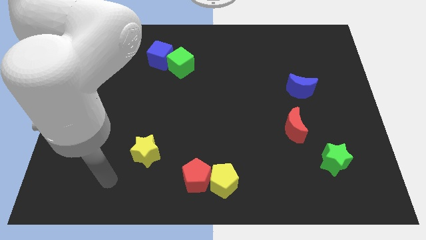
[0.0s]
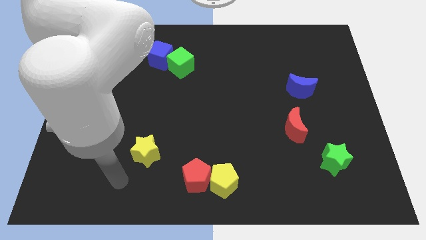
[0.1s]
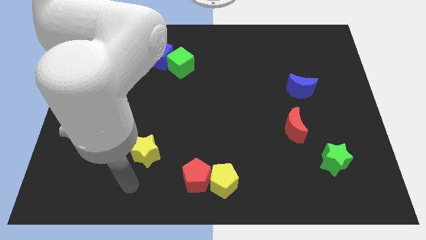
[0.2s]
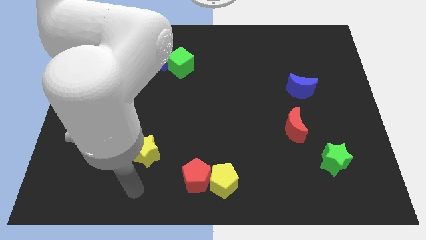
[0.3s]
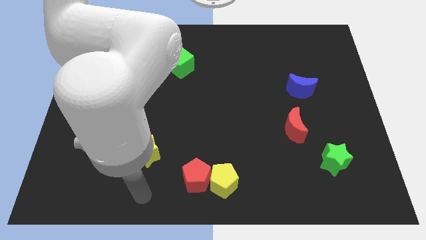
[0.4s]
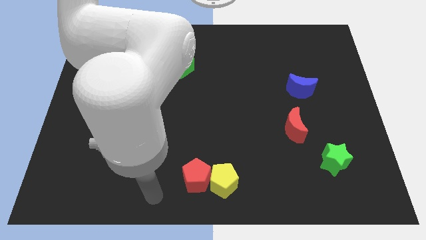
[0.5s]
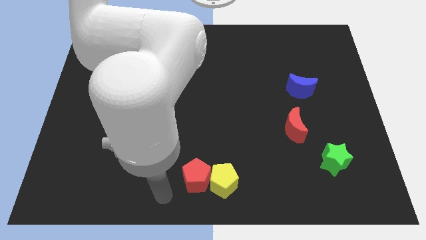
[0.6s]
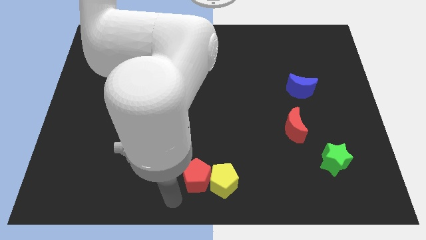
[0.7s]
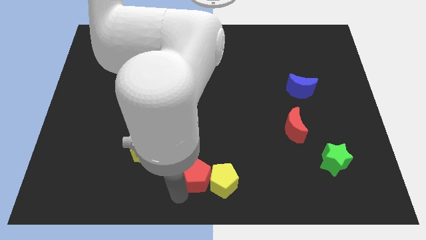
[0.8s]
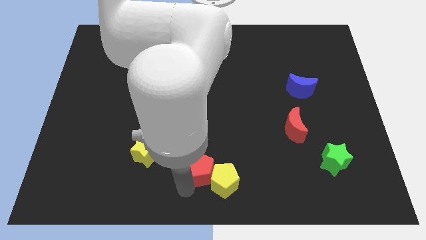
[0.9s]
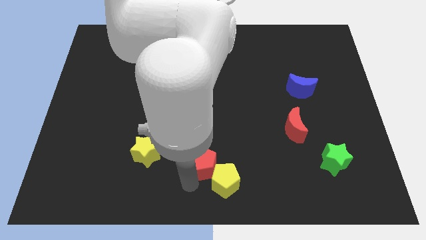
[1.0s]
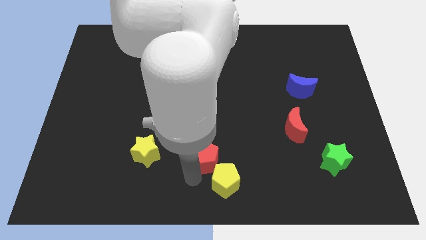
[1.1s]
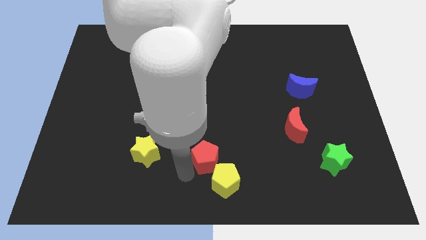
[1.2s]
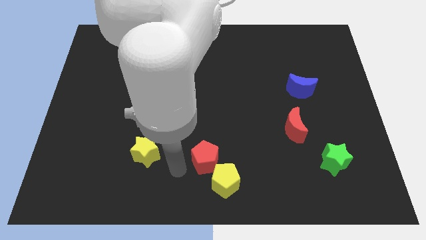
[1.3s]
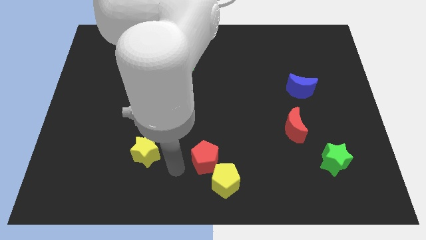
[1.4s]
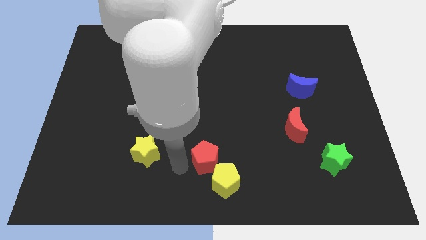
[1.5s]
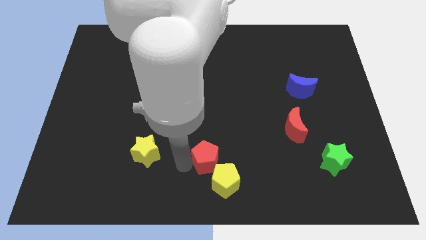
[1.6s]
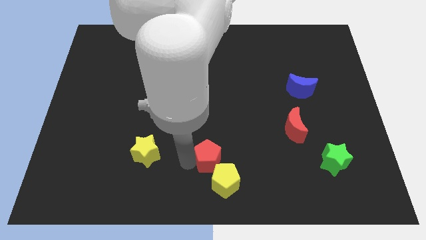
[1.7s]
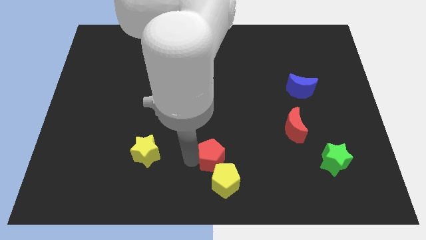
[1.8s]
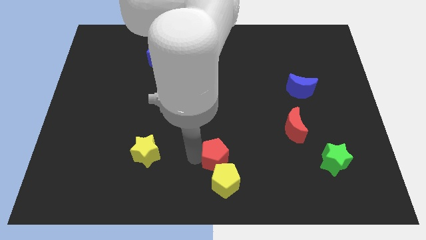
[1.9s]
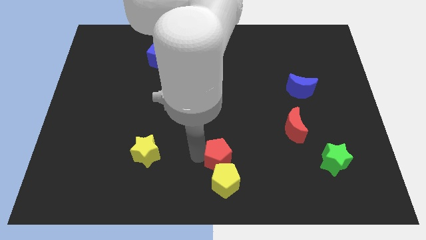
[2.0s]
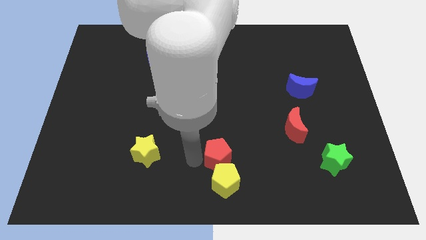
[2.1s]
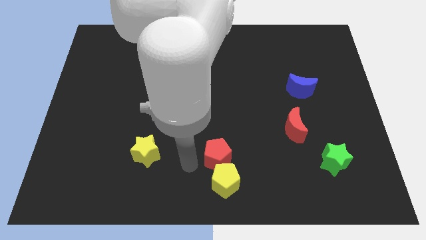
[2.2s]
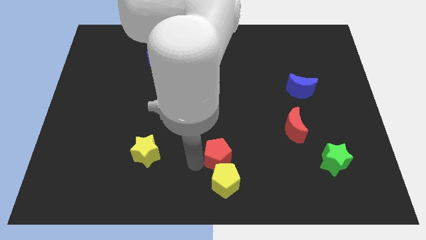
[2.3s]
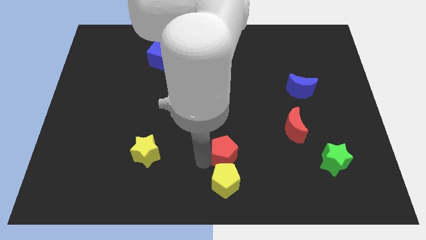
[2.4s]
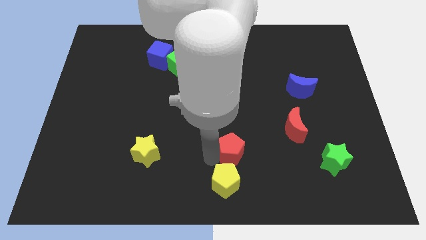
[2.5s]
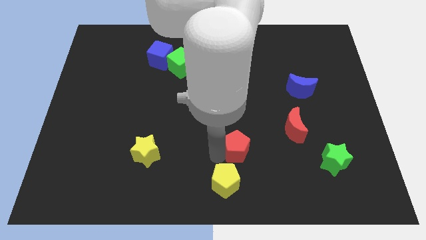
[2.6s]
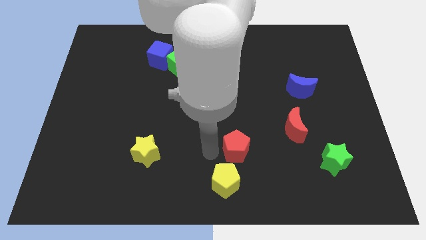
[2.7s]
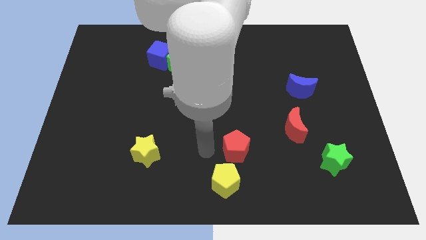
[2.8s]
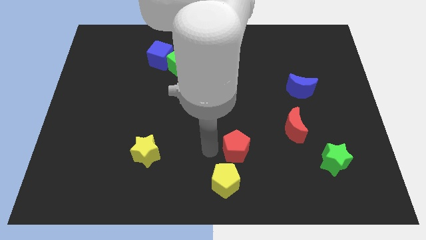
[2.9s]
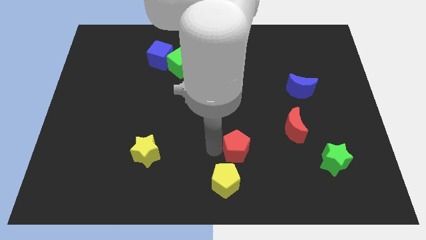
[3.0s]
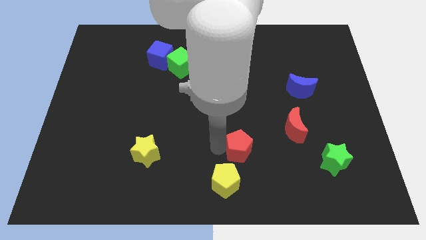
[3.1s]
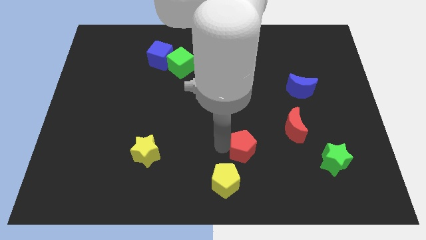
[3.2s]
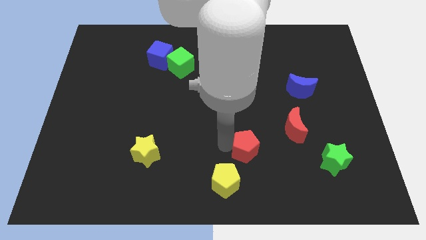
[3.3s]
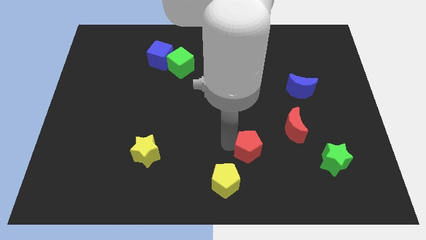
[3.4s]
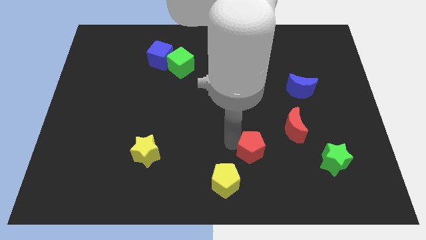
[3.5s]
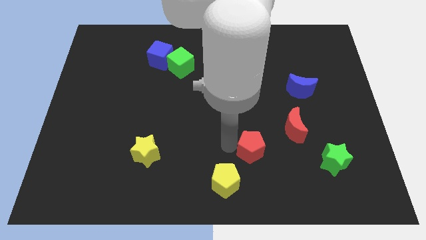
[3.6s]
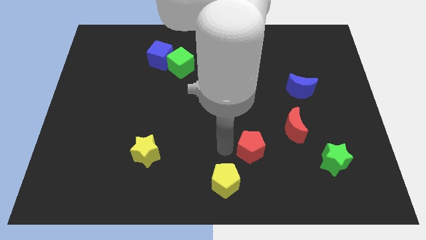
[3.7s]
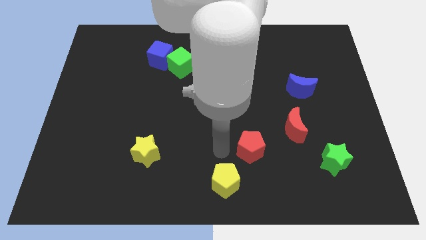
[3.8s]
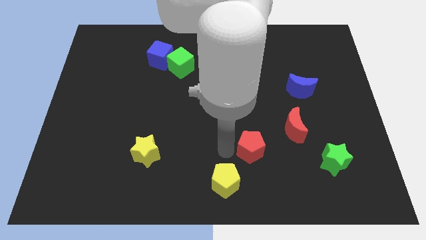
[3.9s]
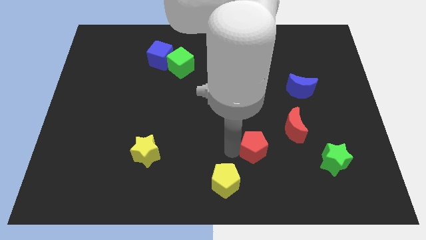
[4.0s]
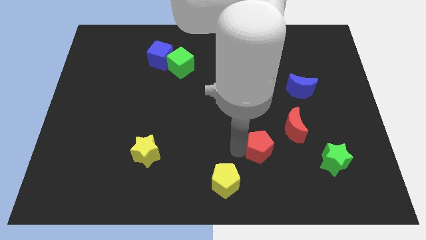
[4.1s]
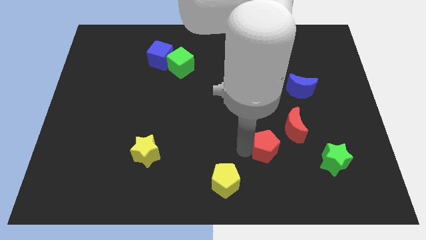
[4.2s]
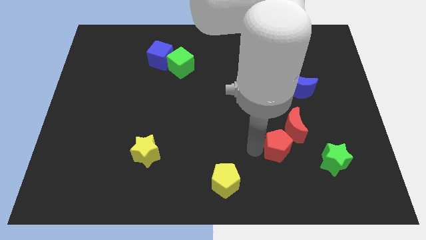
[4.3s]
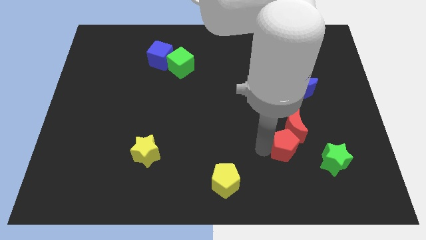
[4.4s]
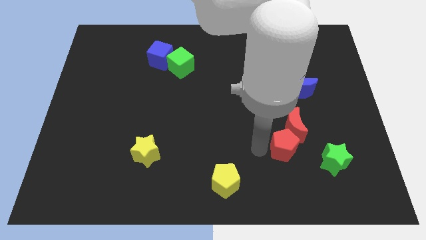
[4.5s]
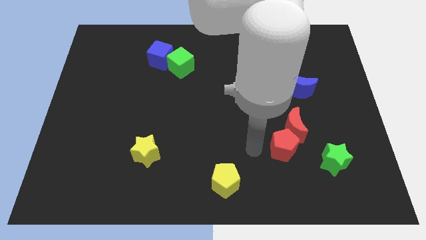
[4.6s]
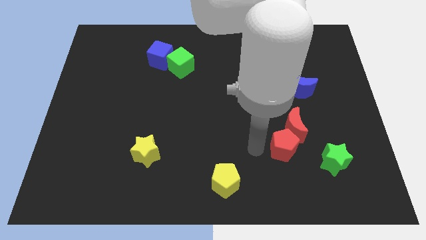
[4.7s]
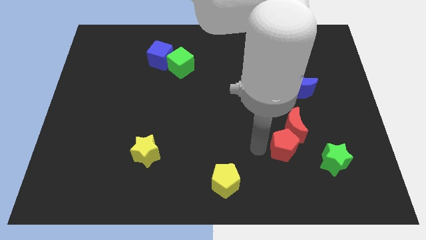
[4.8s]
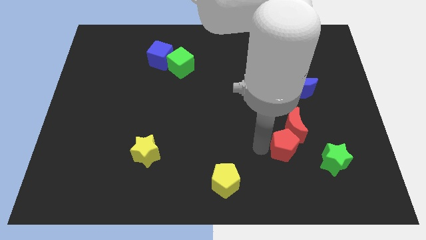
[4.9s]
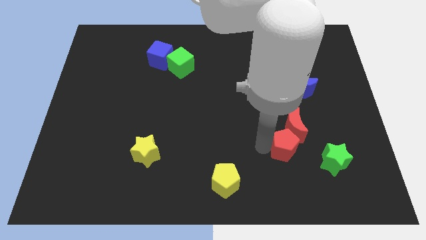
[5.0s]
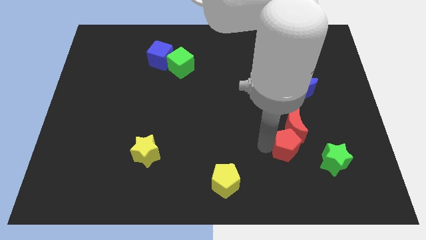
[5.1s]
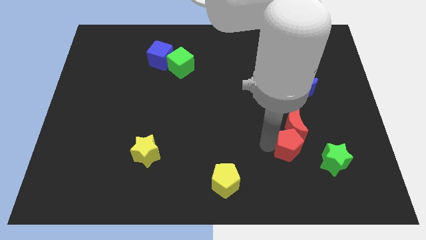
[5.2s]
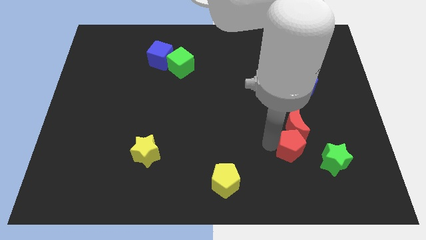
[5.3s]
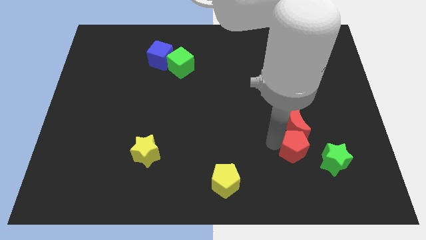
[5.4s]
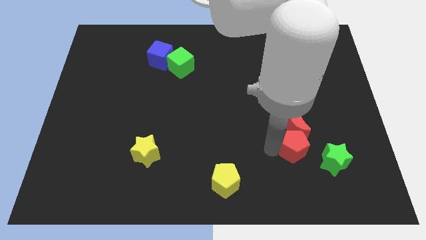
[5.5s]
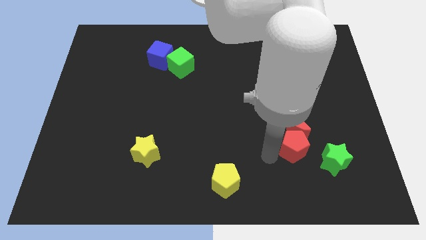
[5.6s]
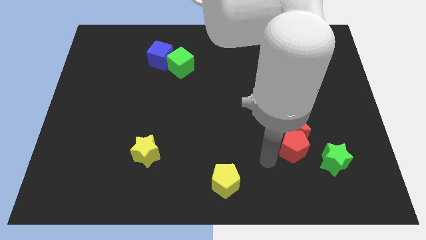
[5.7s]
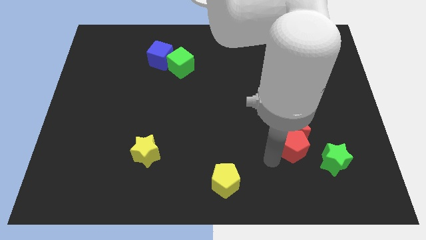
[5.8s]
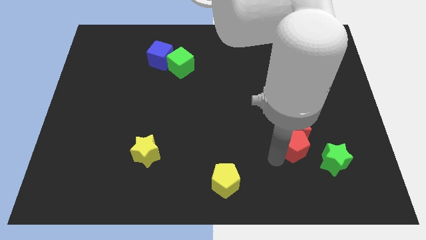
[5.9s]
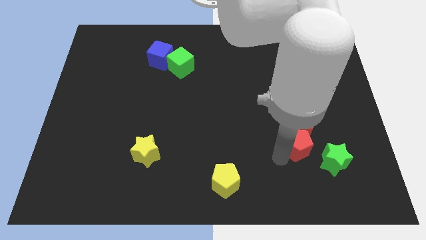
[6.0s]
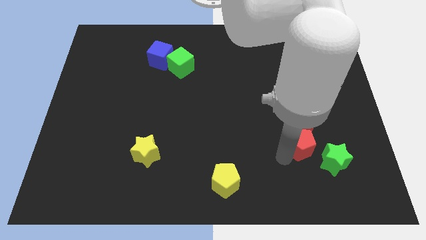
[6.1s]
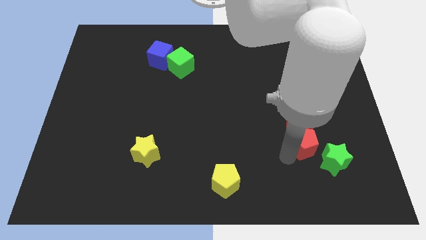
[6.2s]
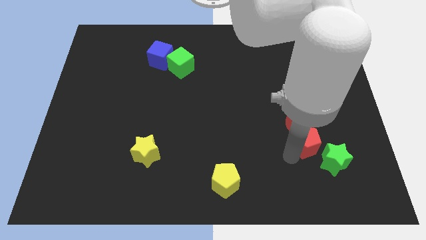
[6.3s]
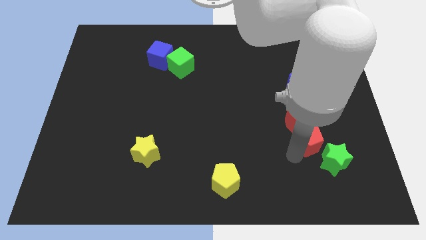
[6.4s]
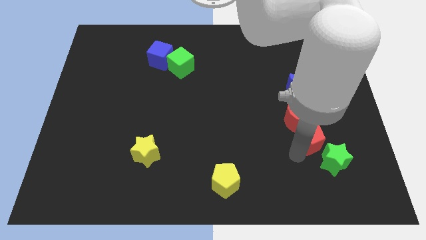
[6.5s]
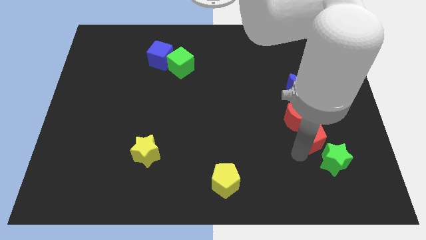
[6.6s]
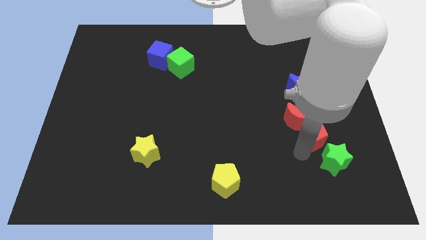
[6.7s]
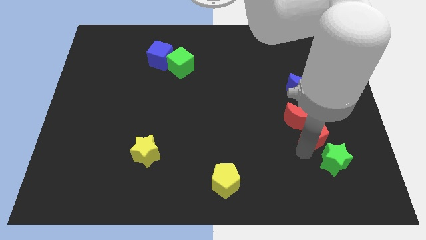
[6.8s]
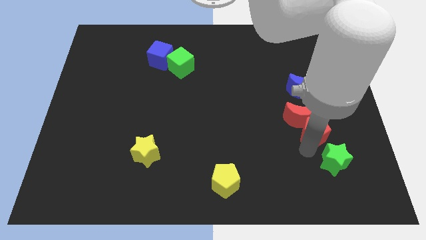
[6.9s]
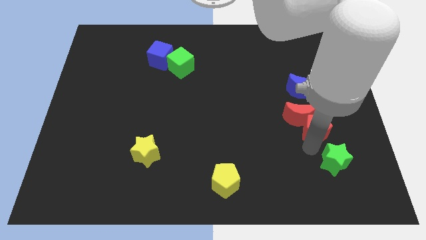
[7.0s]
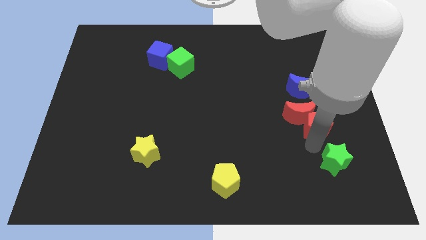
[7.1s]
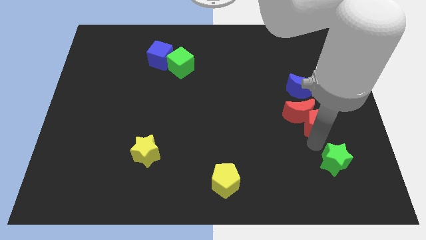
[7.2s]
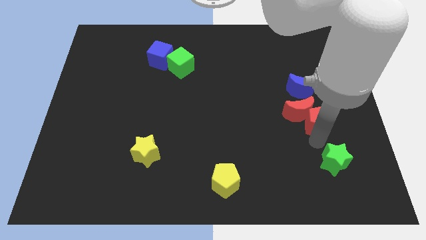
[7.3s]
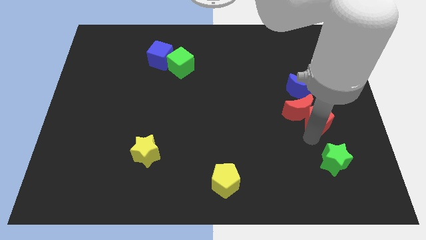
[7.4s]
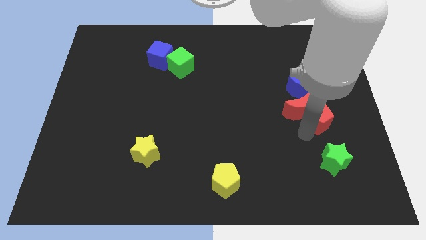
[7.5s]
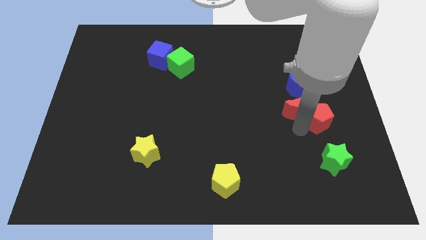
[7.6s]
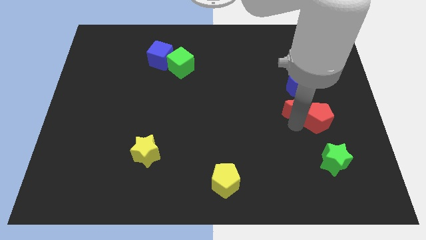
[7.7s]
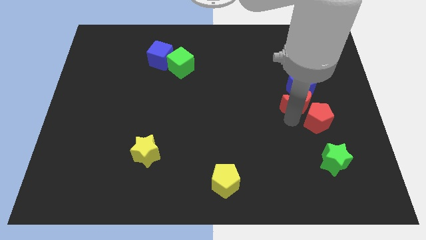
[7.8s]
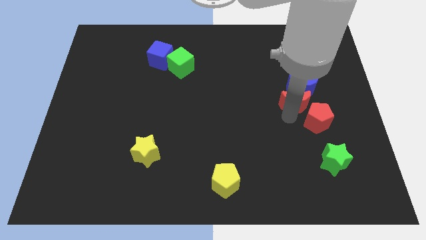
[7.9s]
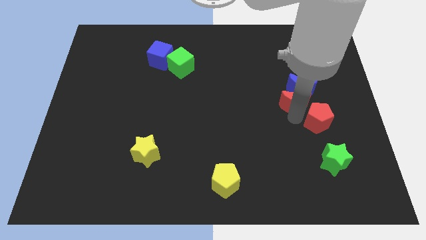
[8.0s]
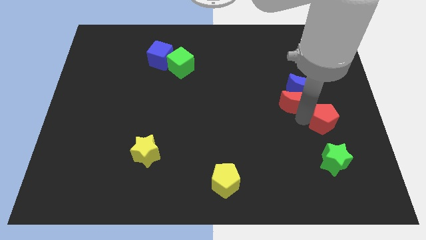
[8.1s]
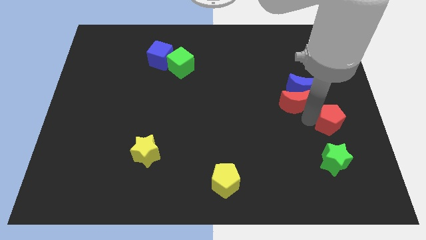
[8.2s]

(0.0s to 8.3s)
slide the red pentagon to the center right
